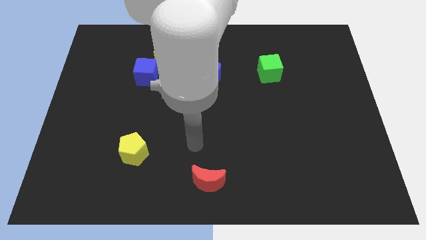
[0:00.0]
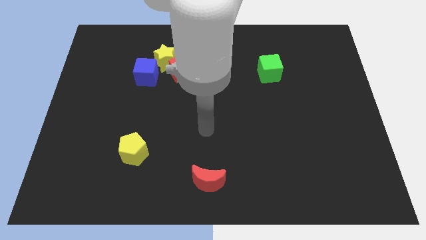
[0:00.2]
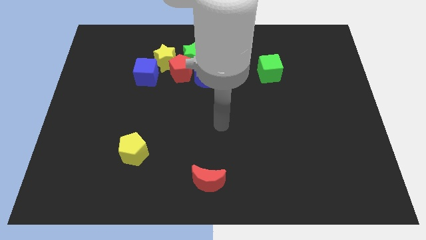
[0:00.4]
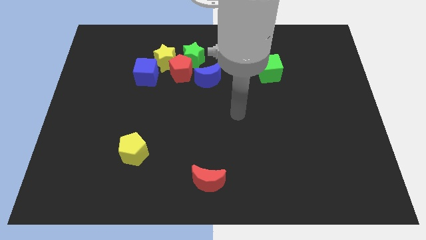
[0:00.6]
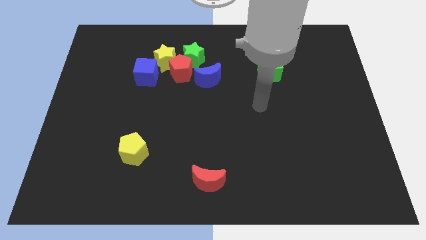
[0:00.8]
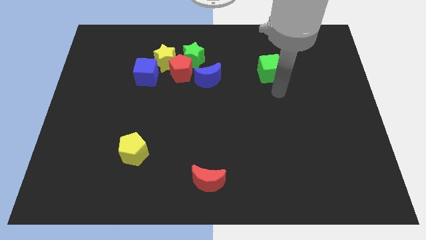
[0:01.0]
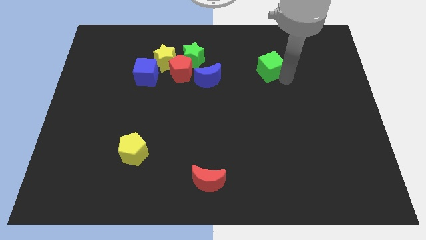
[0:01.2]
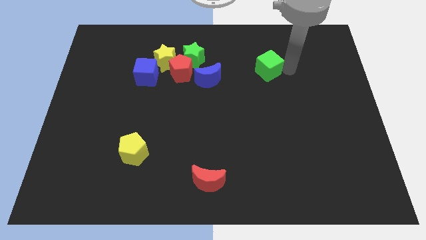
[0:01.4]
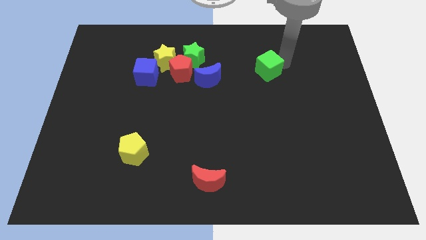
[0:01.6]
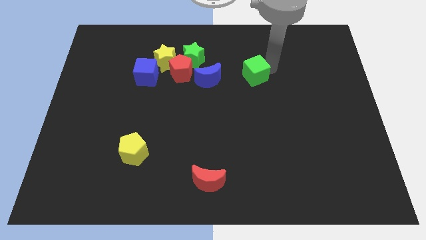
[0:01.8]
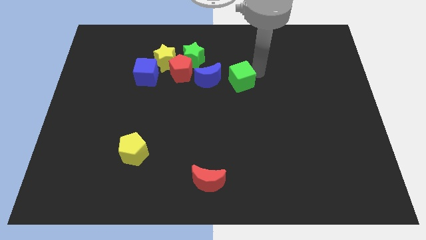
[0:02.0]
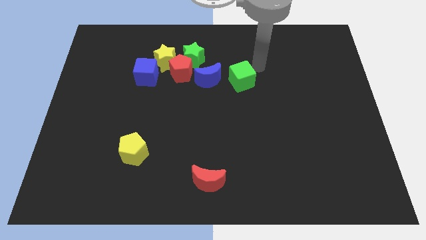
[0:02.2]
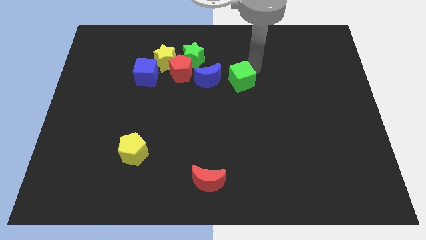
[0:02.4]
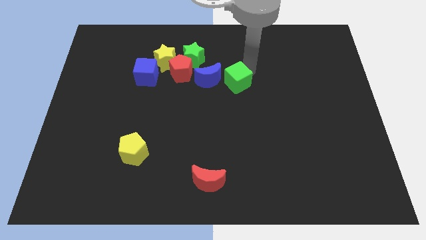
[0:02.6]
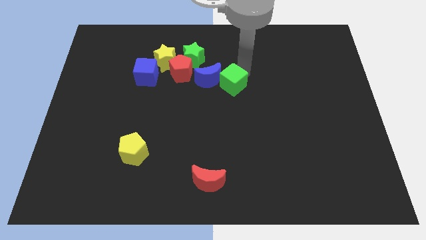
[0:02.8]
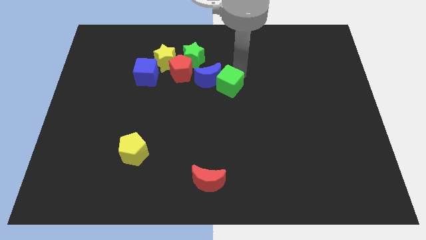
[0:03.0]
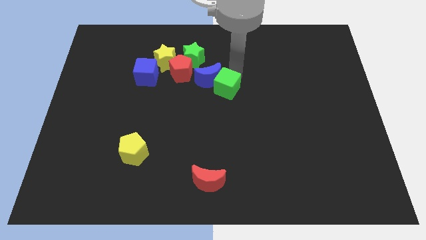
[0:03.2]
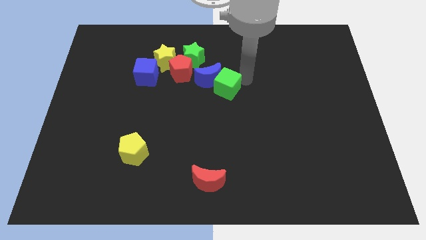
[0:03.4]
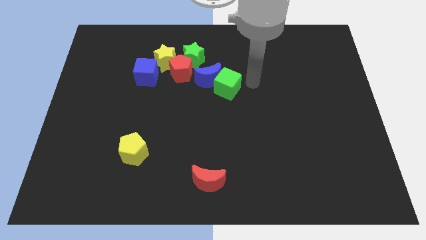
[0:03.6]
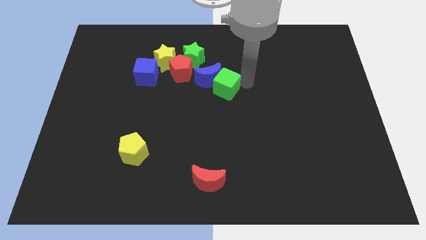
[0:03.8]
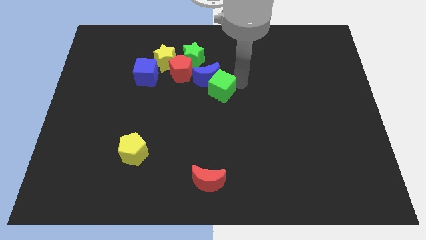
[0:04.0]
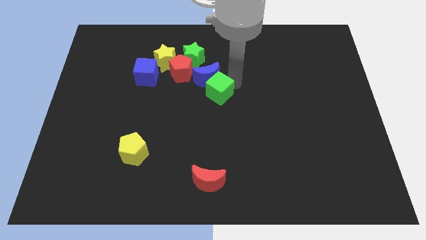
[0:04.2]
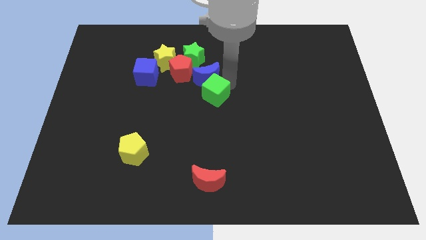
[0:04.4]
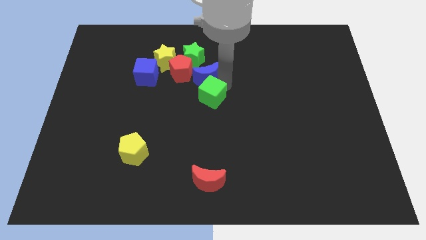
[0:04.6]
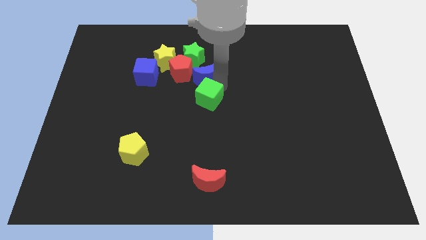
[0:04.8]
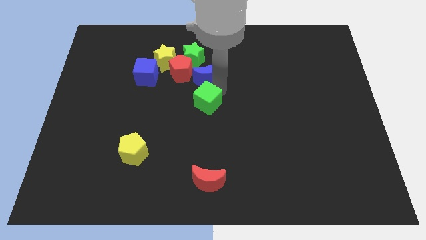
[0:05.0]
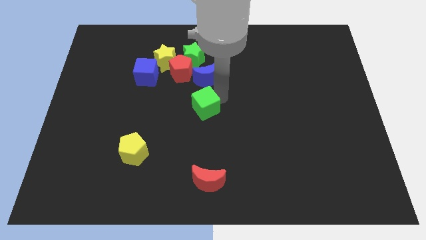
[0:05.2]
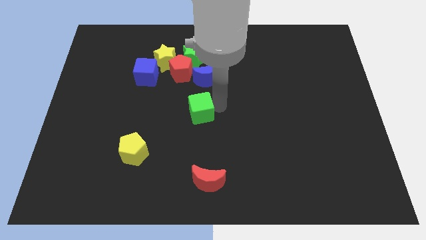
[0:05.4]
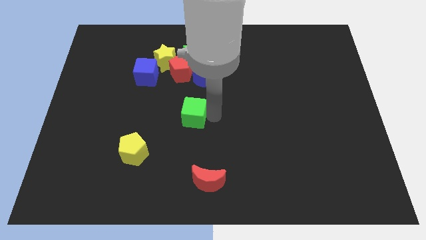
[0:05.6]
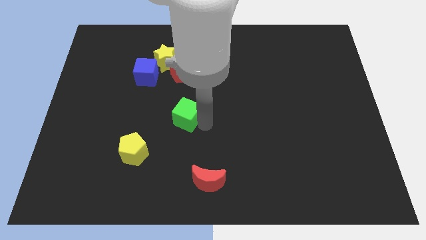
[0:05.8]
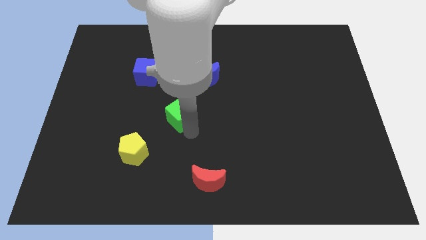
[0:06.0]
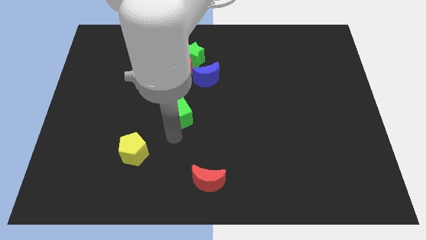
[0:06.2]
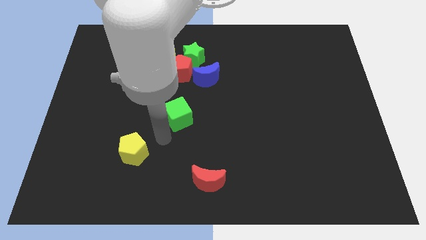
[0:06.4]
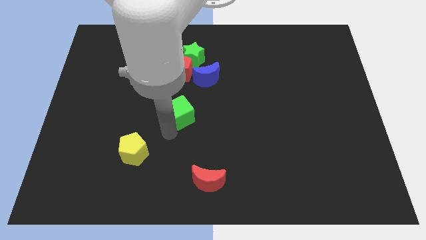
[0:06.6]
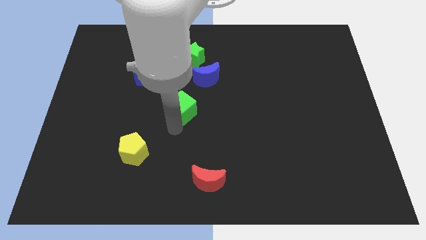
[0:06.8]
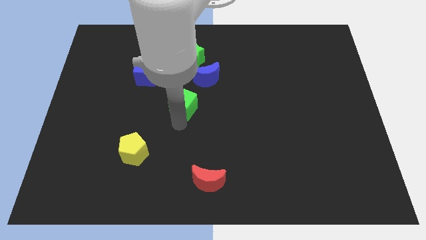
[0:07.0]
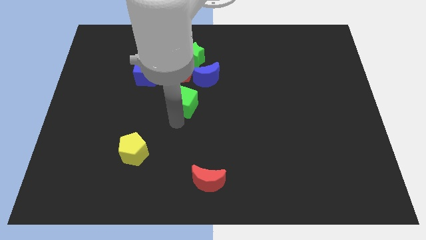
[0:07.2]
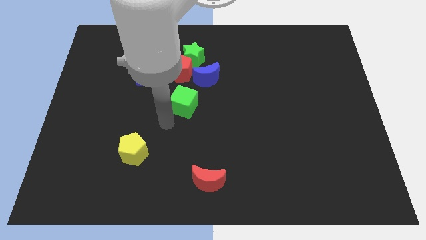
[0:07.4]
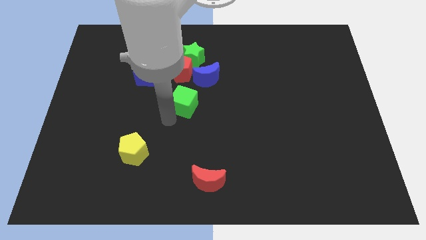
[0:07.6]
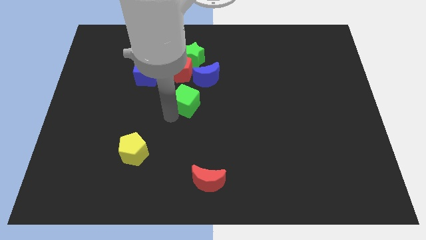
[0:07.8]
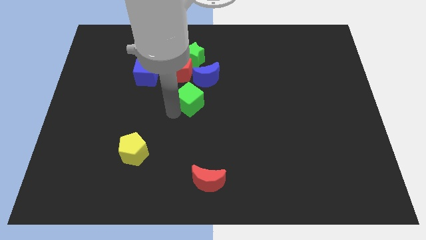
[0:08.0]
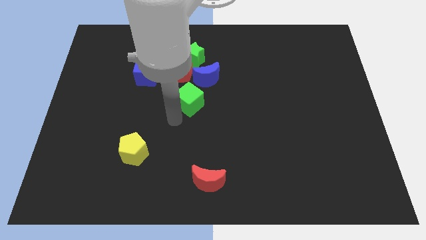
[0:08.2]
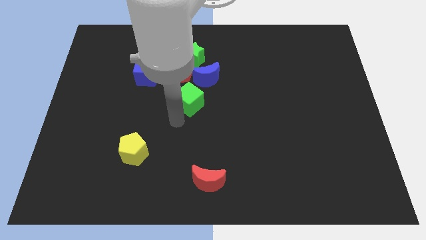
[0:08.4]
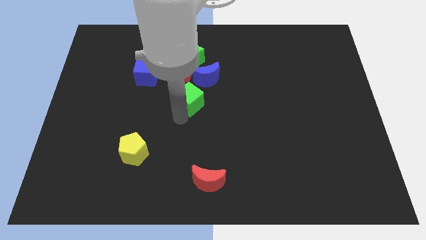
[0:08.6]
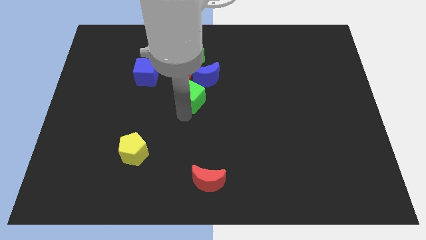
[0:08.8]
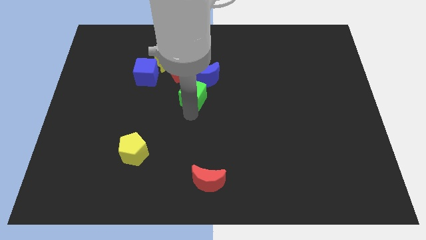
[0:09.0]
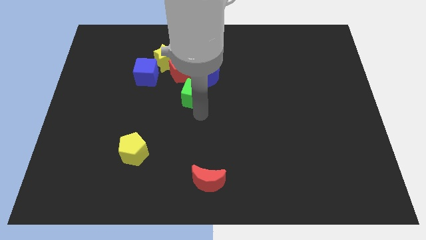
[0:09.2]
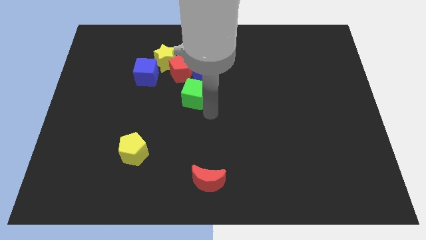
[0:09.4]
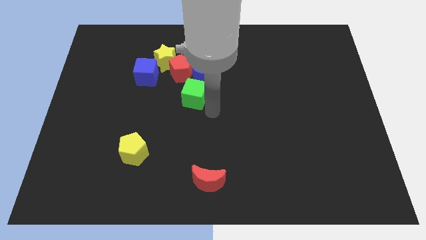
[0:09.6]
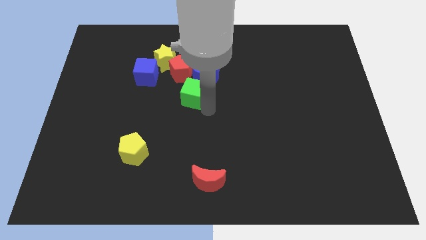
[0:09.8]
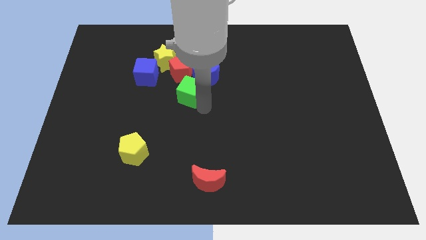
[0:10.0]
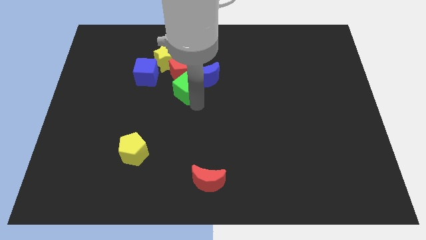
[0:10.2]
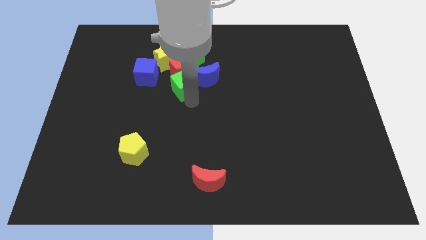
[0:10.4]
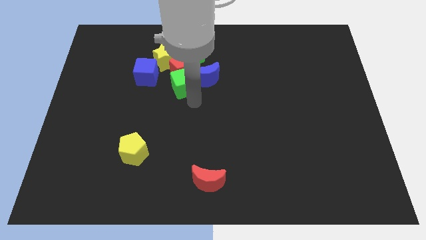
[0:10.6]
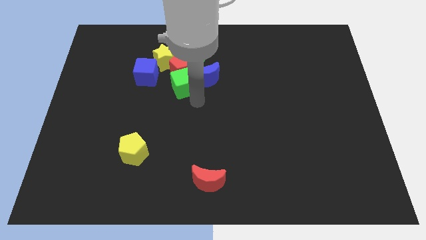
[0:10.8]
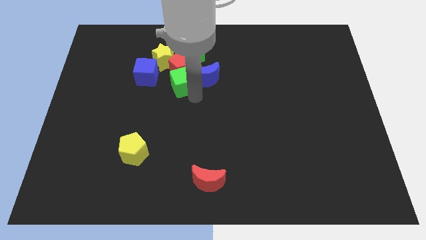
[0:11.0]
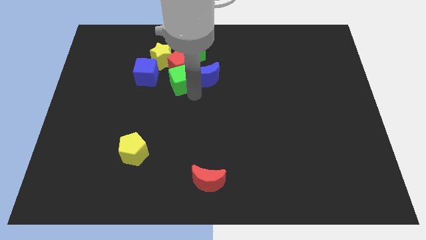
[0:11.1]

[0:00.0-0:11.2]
slide the green cube diagonally down and to the left of the green star
